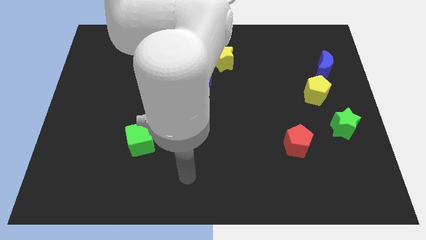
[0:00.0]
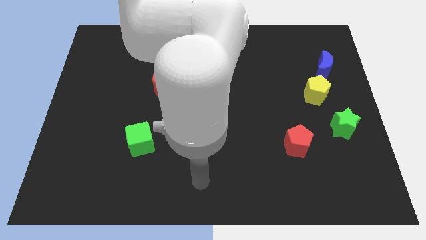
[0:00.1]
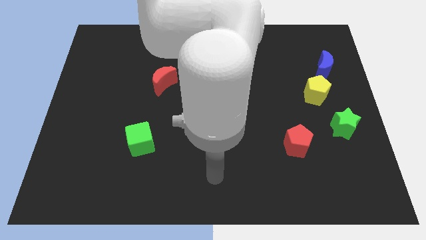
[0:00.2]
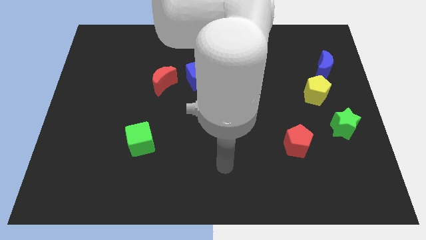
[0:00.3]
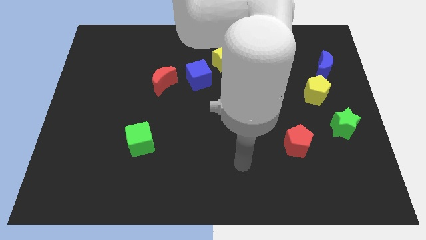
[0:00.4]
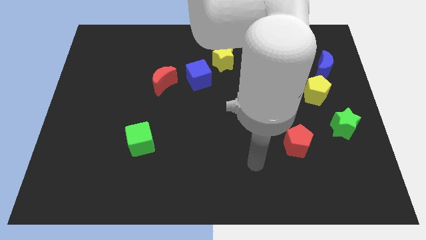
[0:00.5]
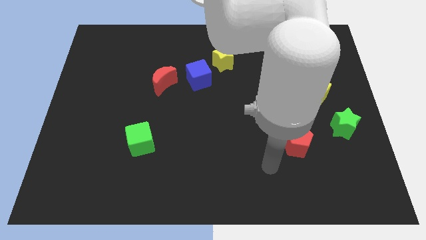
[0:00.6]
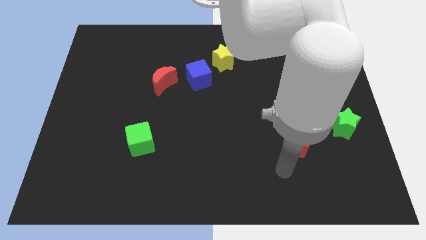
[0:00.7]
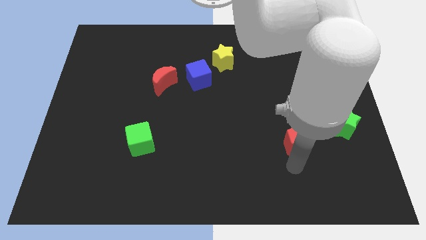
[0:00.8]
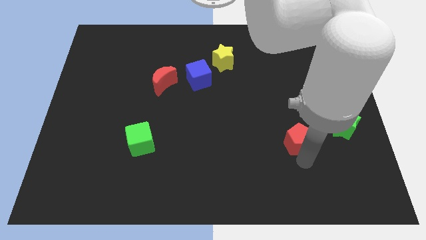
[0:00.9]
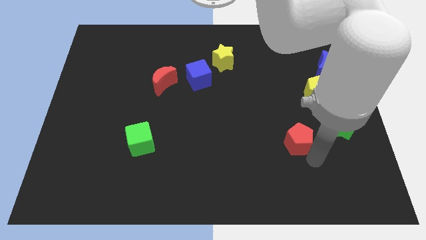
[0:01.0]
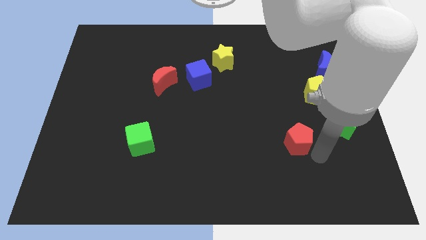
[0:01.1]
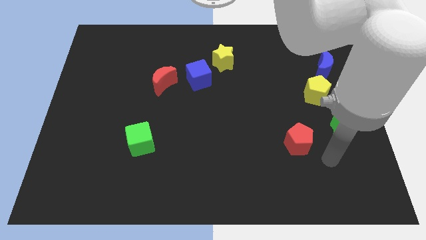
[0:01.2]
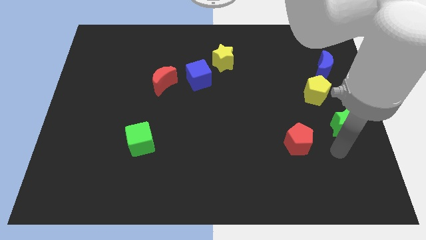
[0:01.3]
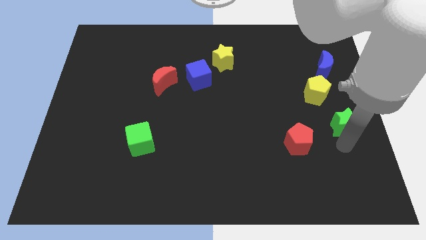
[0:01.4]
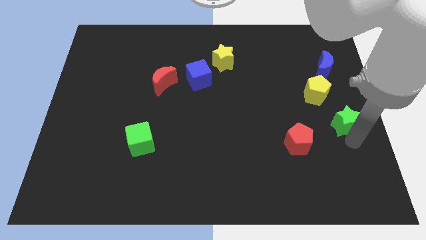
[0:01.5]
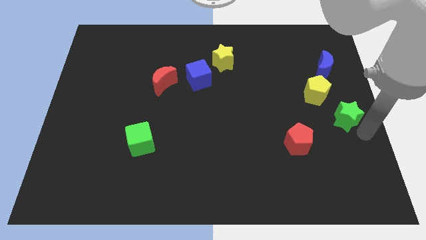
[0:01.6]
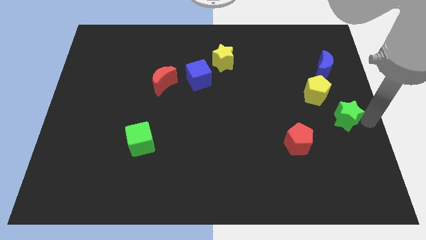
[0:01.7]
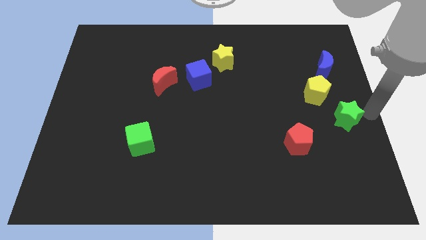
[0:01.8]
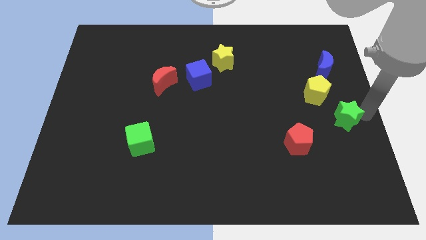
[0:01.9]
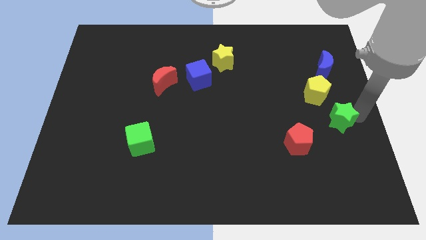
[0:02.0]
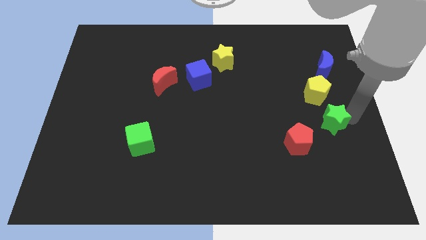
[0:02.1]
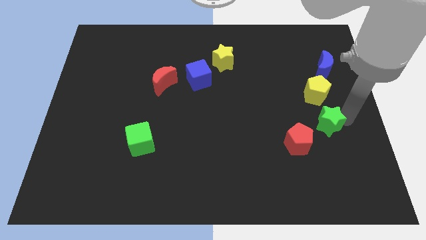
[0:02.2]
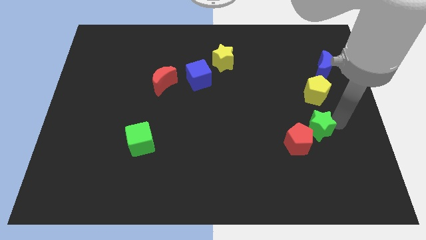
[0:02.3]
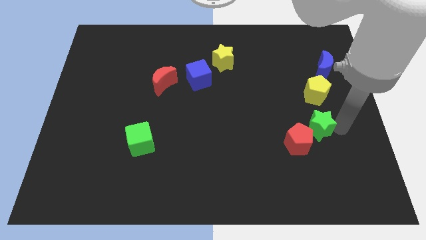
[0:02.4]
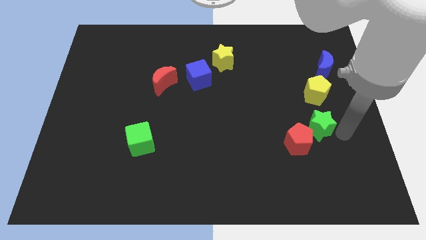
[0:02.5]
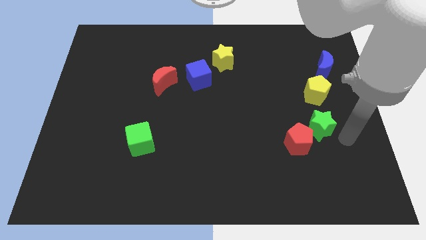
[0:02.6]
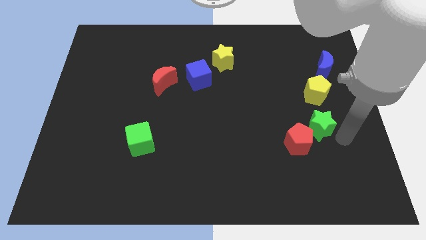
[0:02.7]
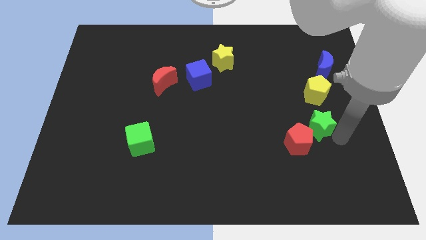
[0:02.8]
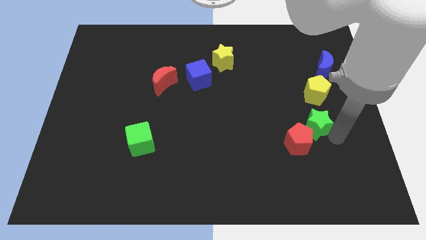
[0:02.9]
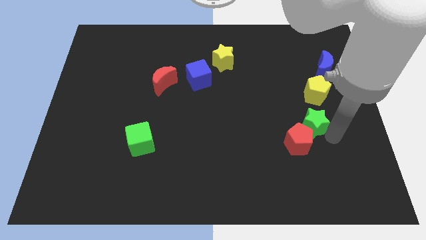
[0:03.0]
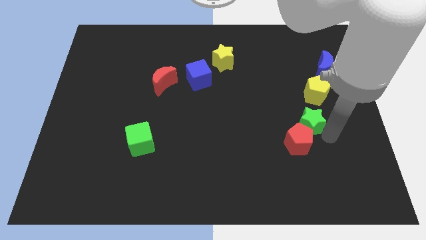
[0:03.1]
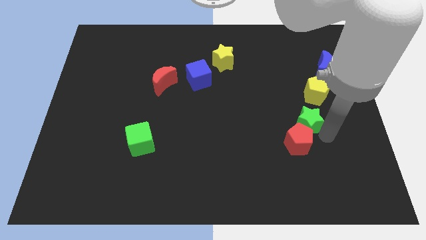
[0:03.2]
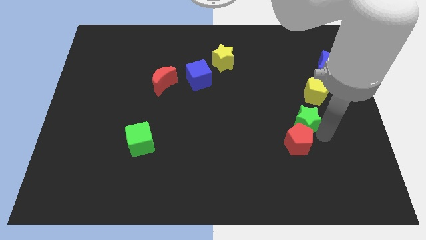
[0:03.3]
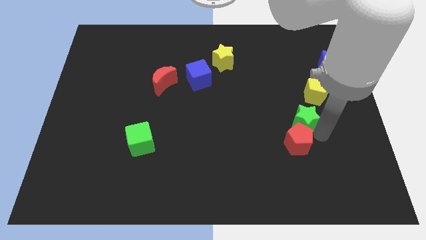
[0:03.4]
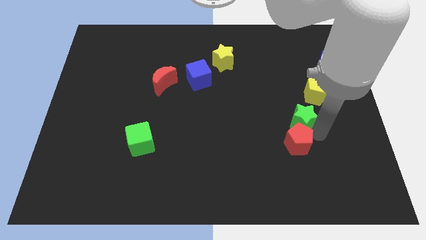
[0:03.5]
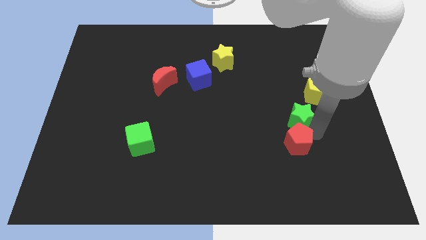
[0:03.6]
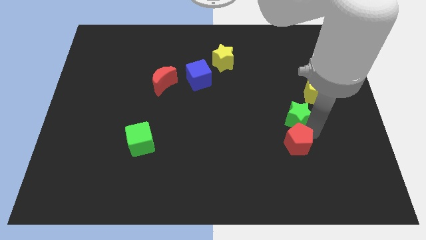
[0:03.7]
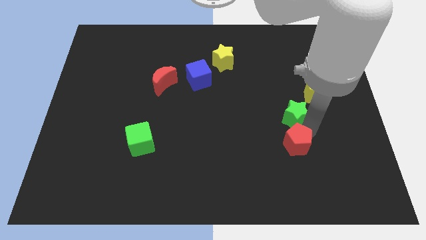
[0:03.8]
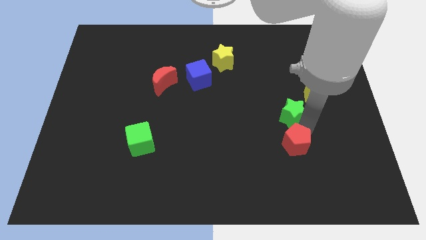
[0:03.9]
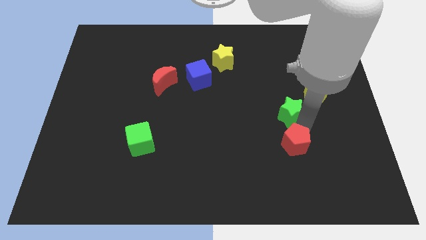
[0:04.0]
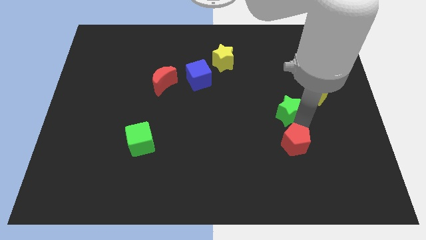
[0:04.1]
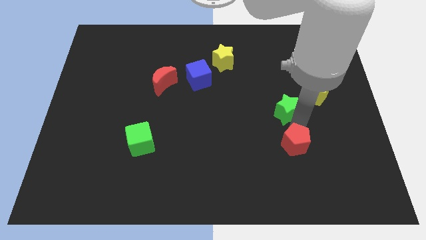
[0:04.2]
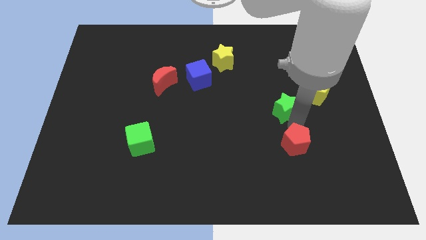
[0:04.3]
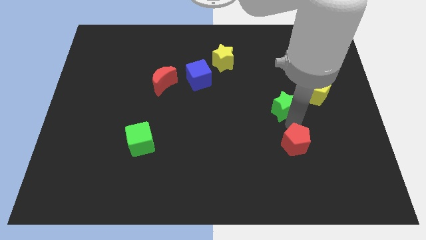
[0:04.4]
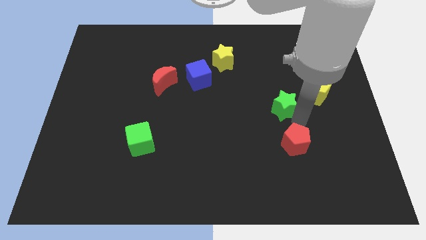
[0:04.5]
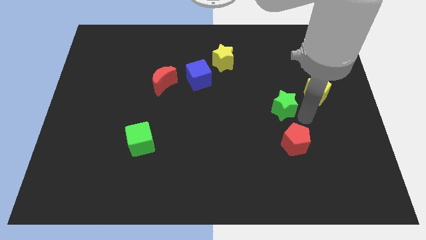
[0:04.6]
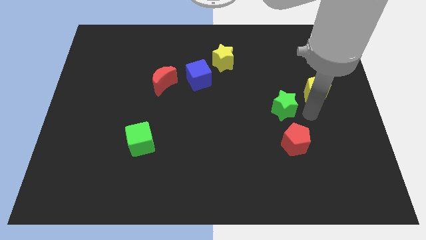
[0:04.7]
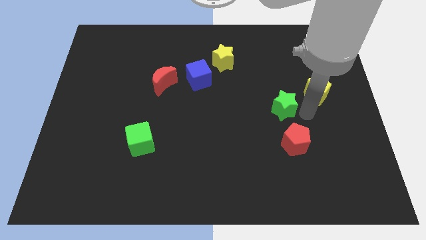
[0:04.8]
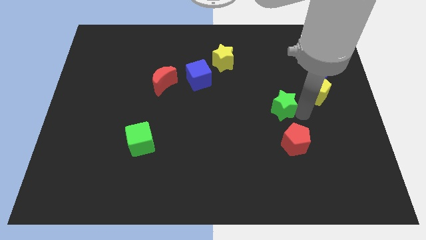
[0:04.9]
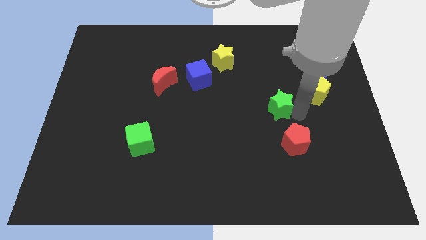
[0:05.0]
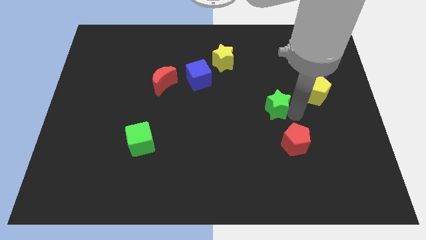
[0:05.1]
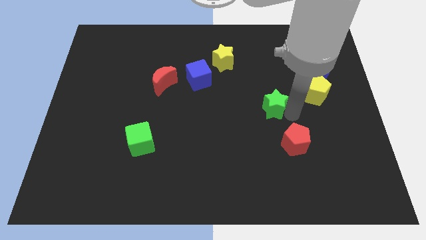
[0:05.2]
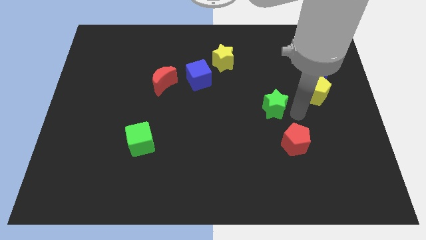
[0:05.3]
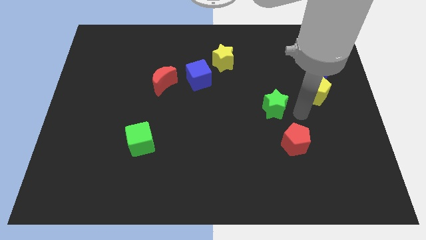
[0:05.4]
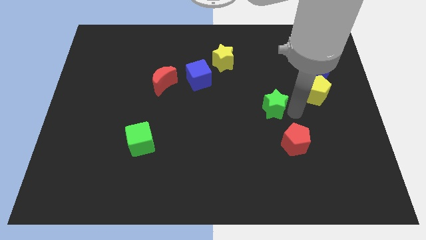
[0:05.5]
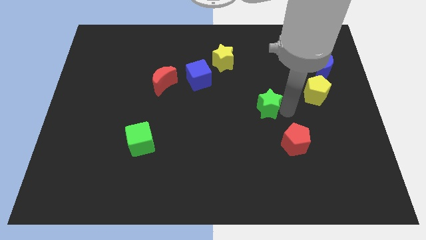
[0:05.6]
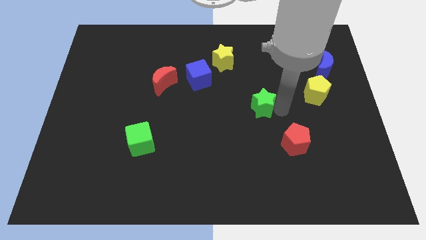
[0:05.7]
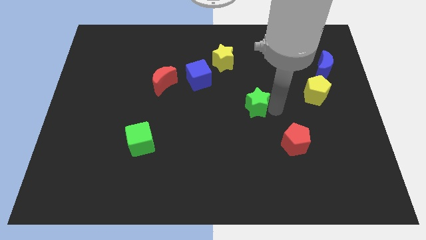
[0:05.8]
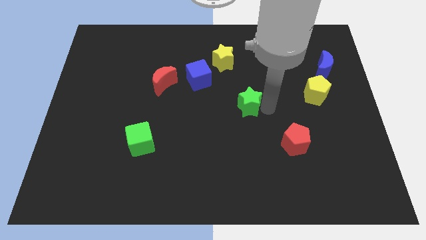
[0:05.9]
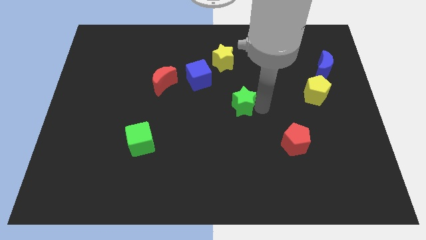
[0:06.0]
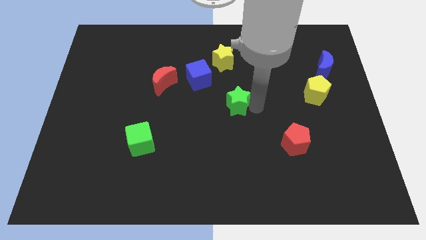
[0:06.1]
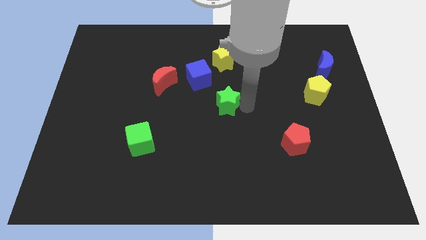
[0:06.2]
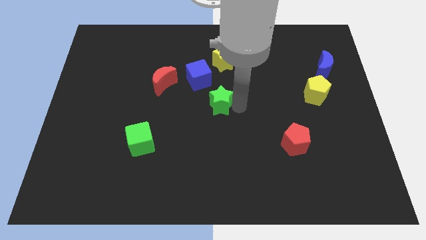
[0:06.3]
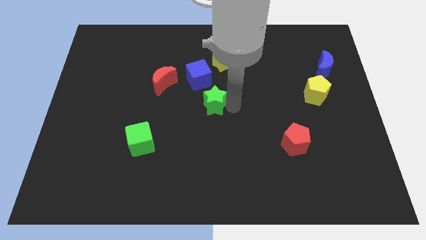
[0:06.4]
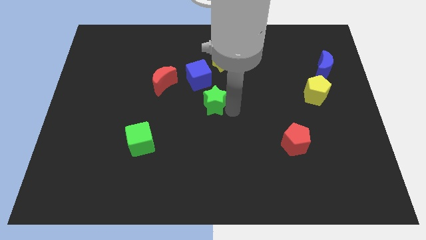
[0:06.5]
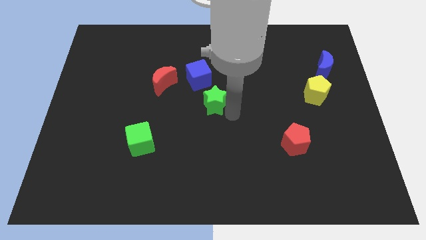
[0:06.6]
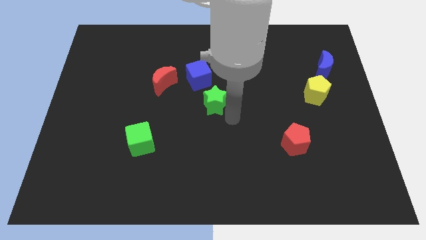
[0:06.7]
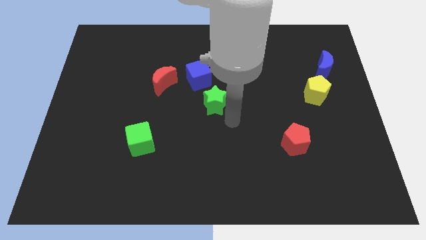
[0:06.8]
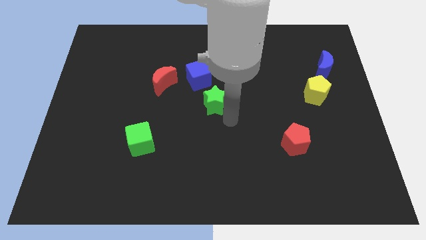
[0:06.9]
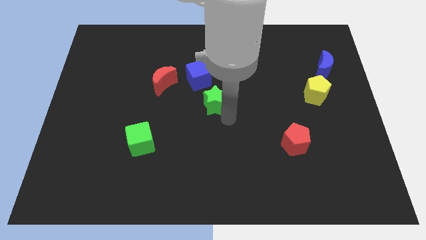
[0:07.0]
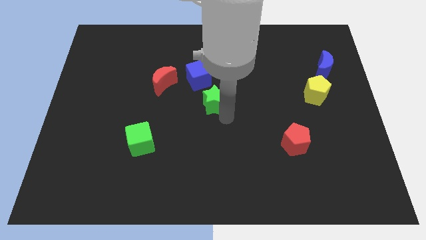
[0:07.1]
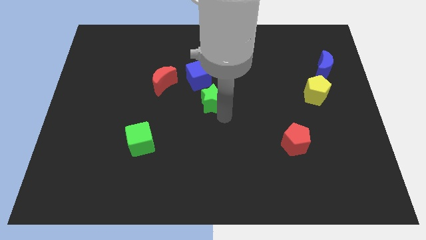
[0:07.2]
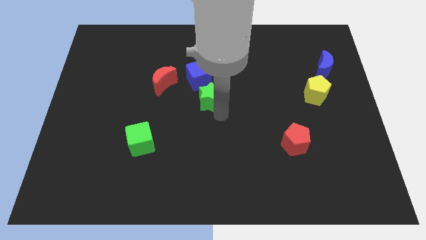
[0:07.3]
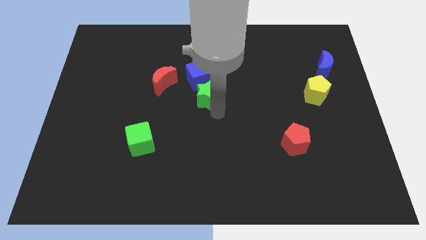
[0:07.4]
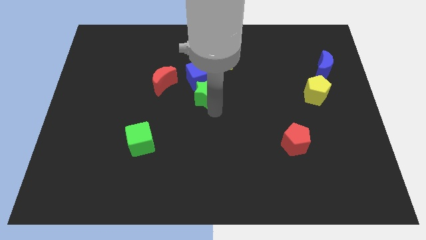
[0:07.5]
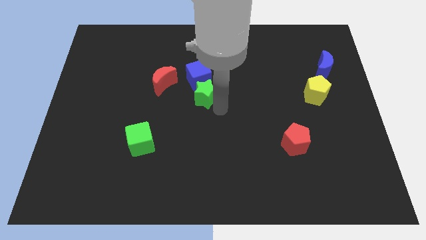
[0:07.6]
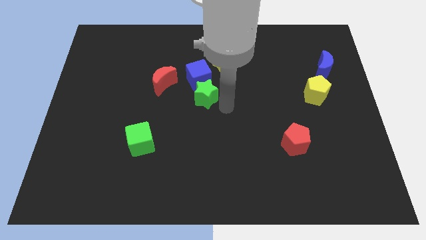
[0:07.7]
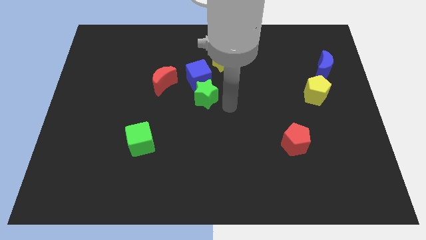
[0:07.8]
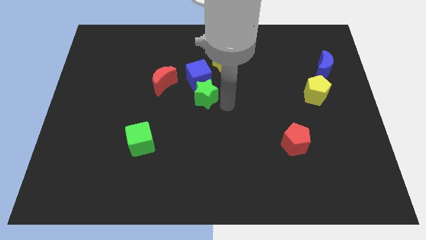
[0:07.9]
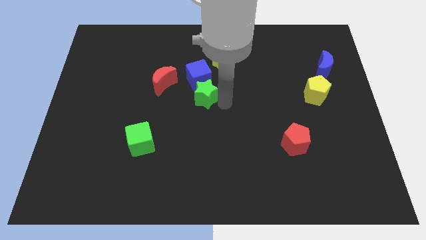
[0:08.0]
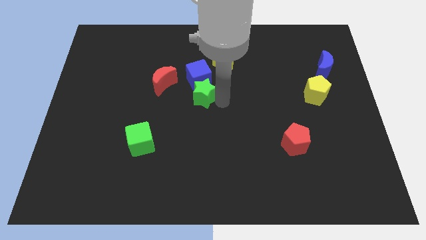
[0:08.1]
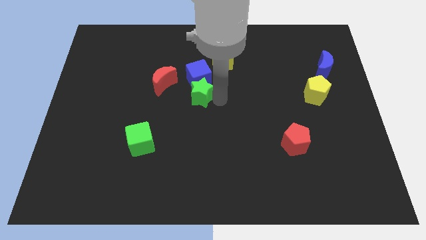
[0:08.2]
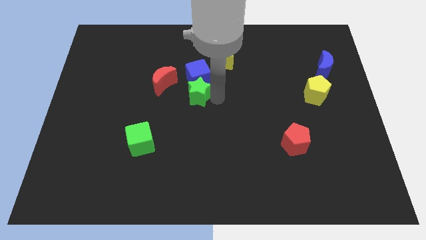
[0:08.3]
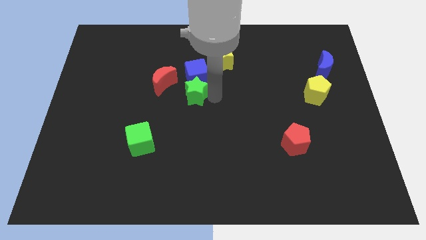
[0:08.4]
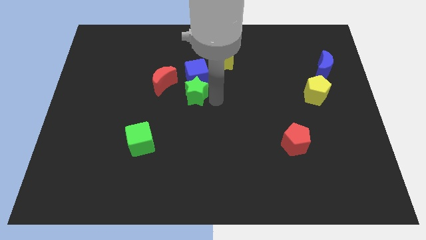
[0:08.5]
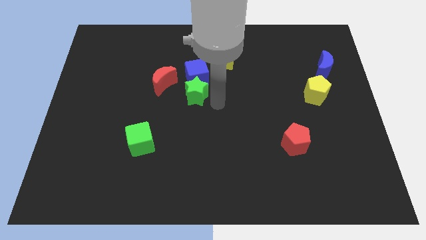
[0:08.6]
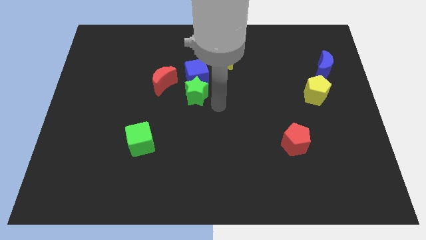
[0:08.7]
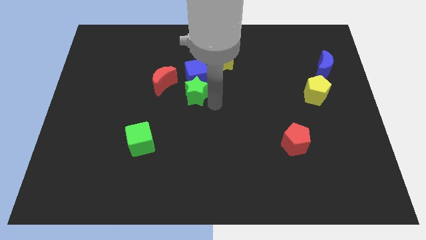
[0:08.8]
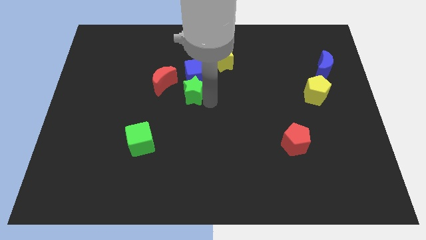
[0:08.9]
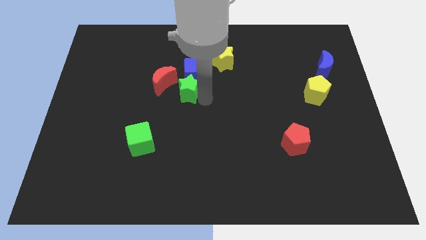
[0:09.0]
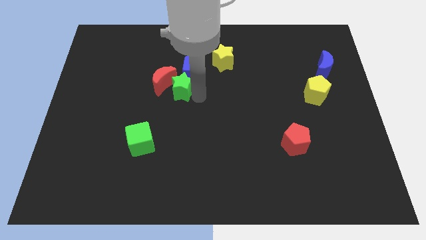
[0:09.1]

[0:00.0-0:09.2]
slide the green star next to the red moon
